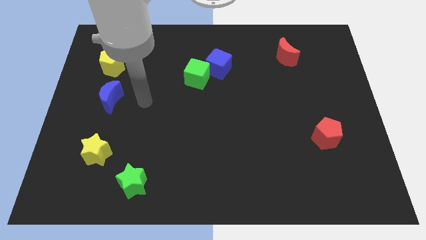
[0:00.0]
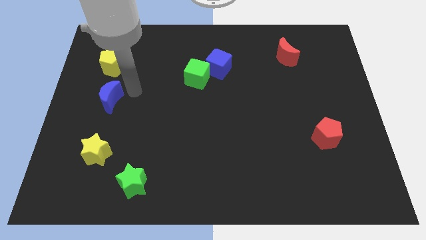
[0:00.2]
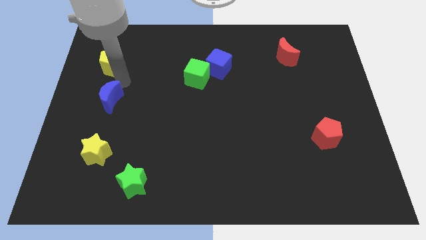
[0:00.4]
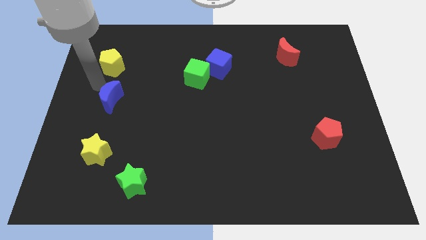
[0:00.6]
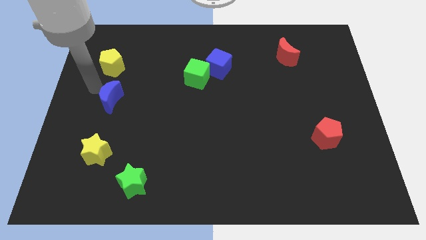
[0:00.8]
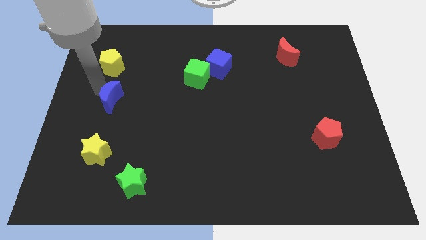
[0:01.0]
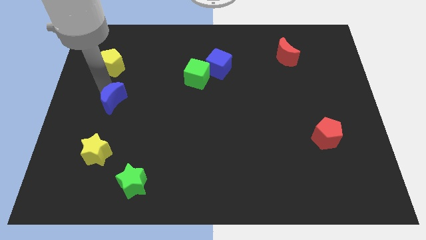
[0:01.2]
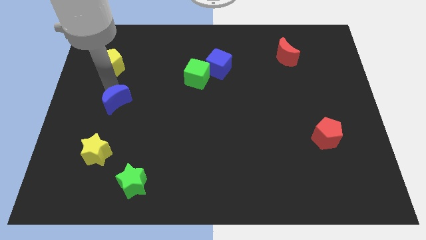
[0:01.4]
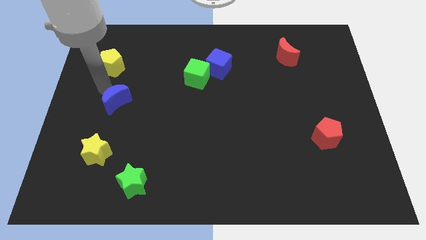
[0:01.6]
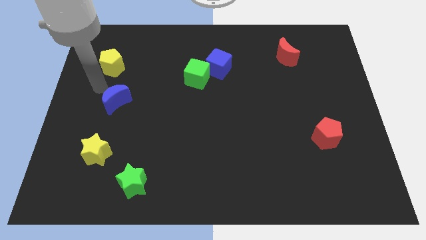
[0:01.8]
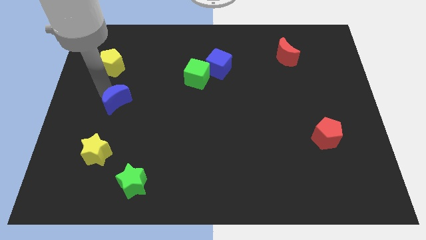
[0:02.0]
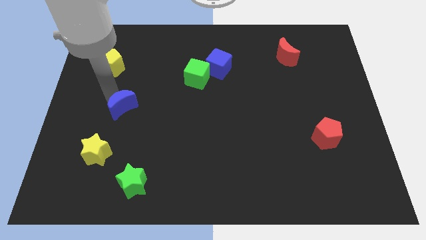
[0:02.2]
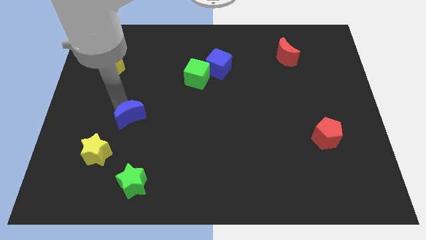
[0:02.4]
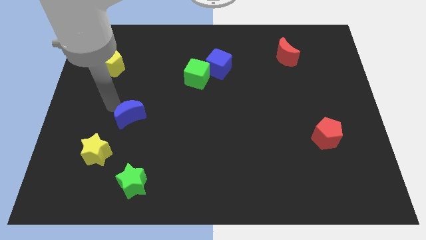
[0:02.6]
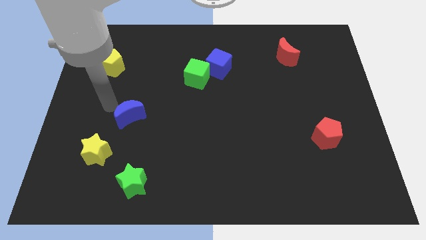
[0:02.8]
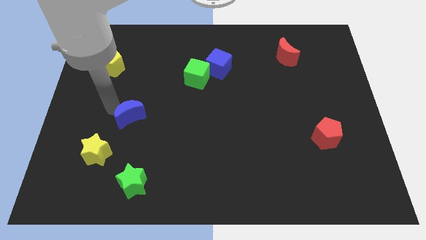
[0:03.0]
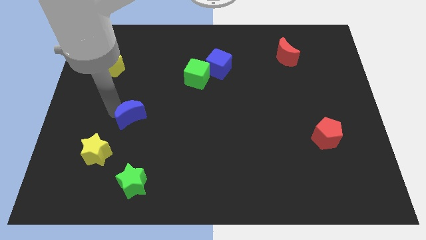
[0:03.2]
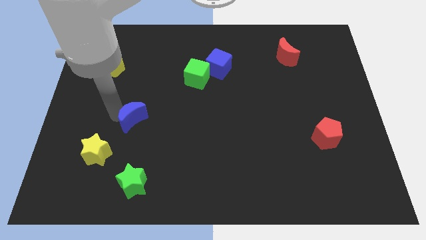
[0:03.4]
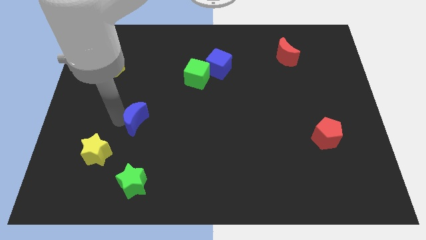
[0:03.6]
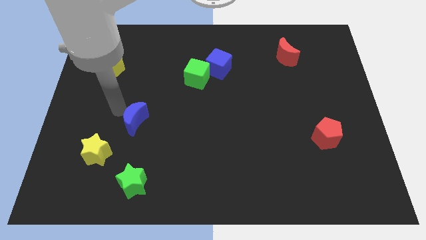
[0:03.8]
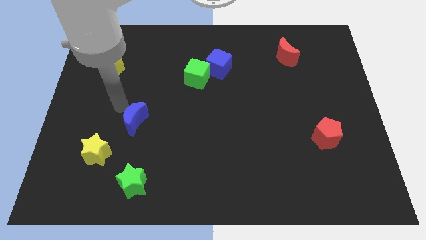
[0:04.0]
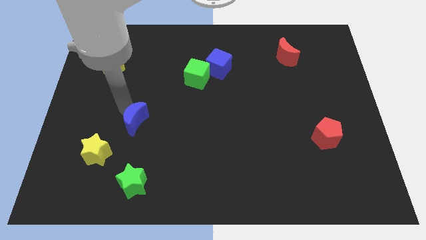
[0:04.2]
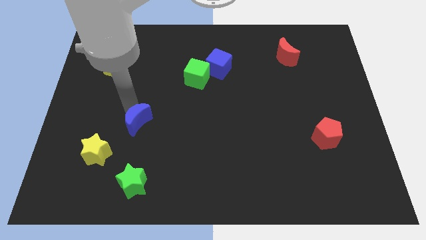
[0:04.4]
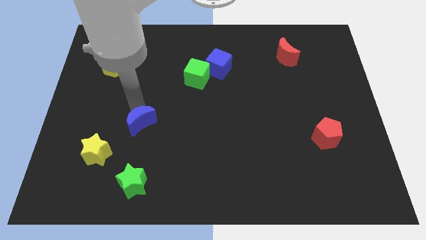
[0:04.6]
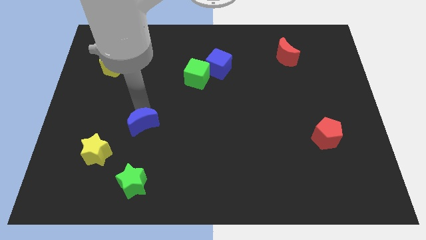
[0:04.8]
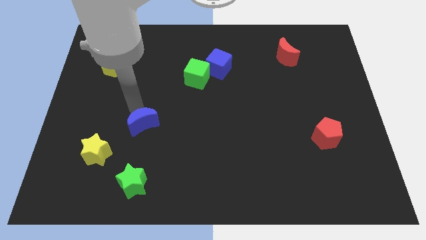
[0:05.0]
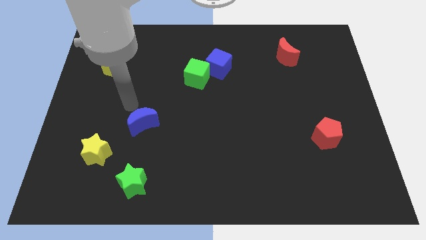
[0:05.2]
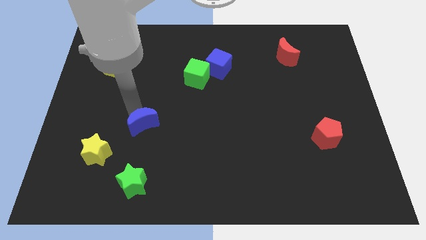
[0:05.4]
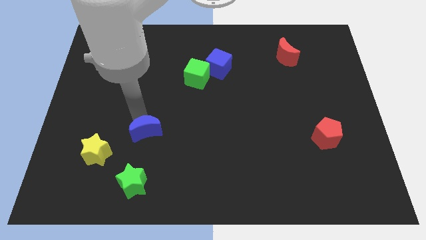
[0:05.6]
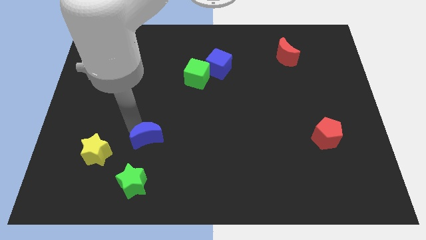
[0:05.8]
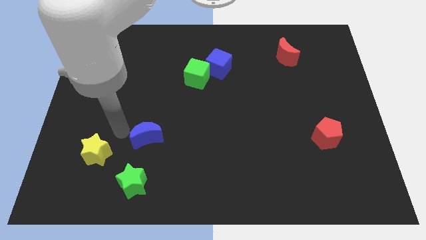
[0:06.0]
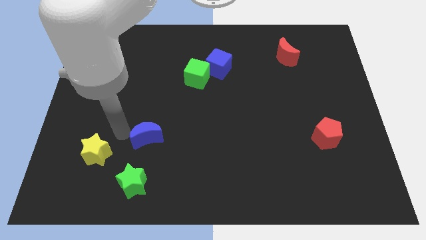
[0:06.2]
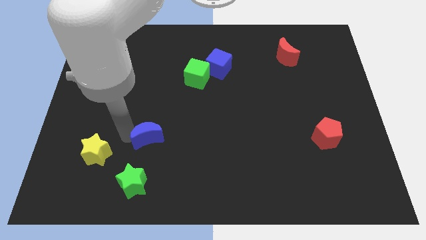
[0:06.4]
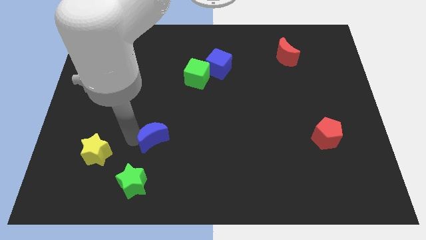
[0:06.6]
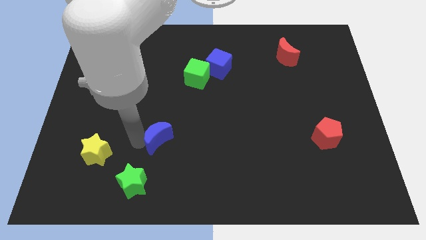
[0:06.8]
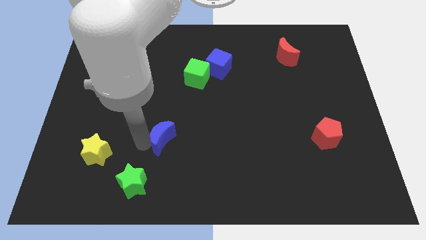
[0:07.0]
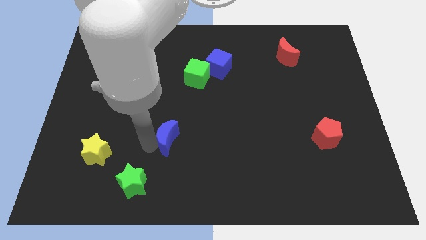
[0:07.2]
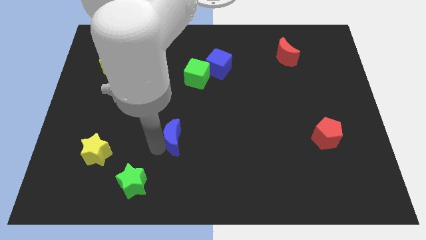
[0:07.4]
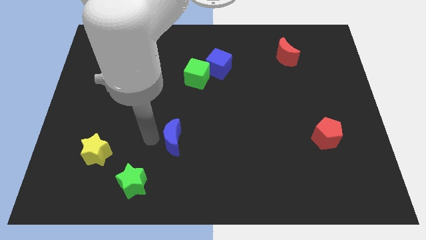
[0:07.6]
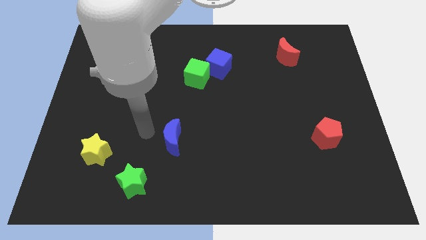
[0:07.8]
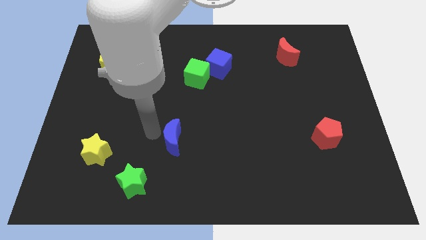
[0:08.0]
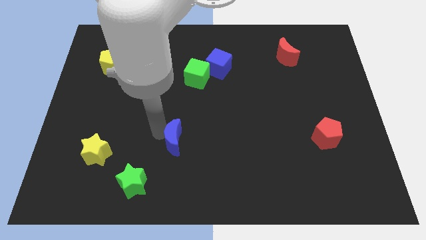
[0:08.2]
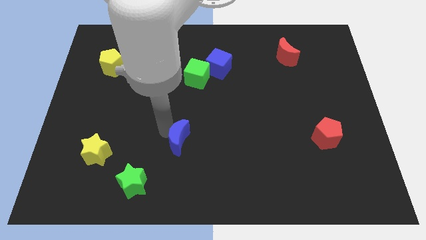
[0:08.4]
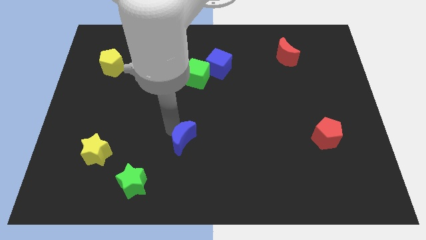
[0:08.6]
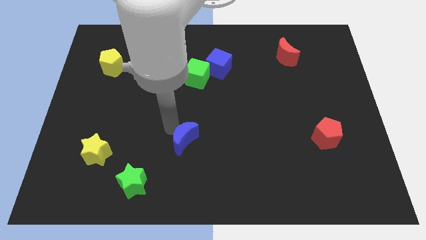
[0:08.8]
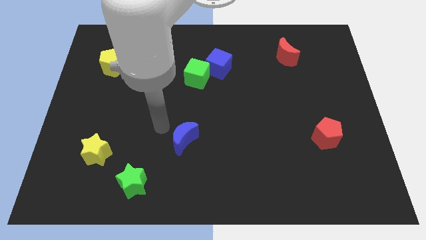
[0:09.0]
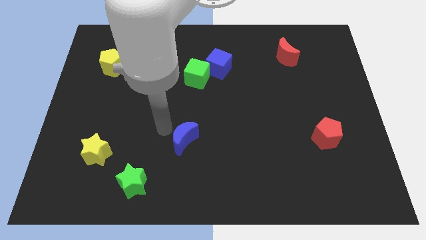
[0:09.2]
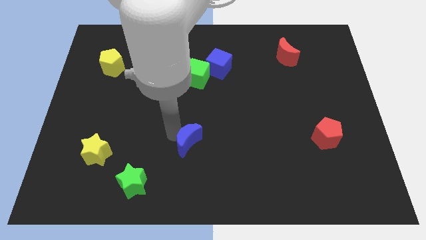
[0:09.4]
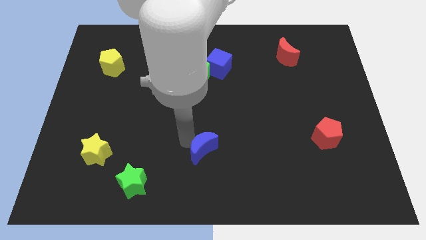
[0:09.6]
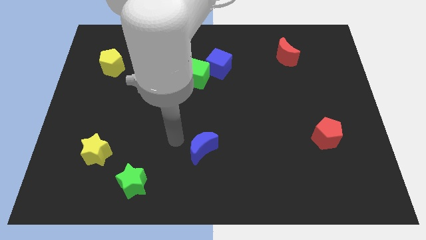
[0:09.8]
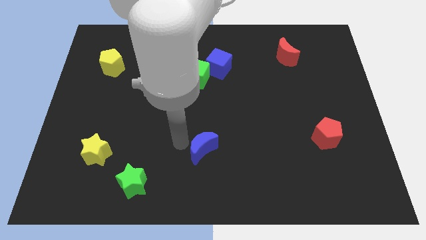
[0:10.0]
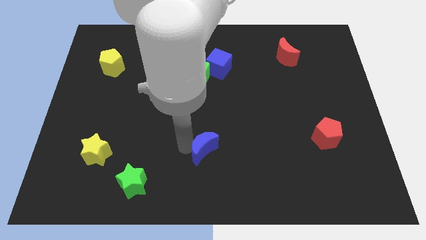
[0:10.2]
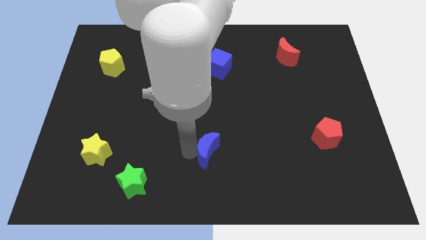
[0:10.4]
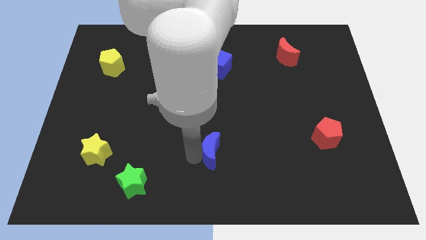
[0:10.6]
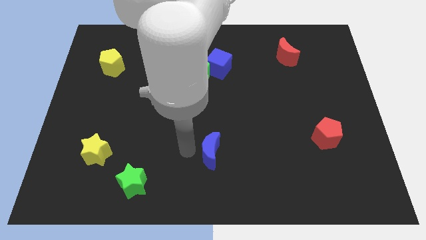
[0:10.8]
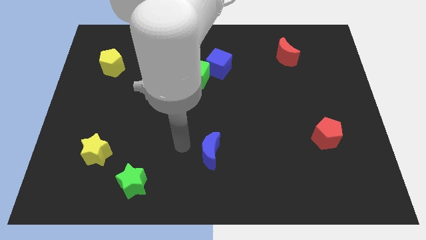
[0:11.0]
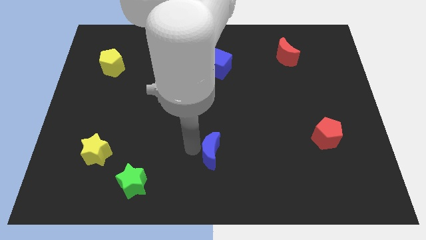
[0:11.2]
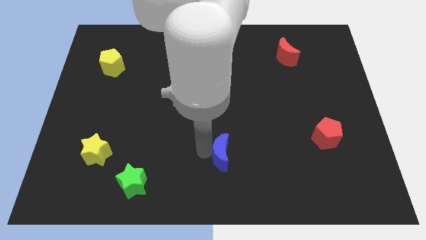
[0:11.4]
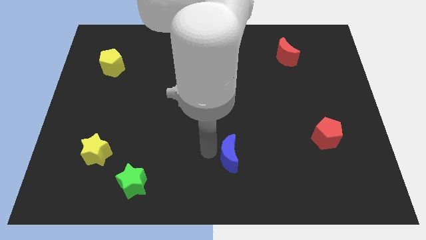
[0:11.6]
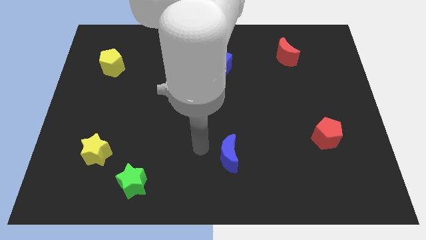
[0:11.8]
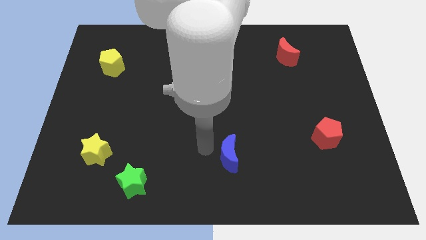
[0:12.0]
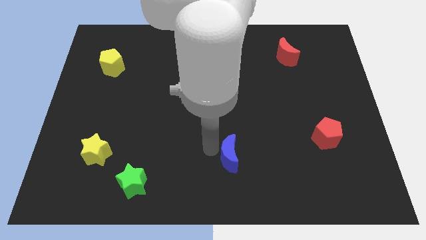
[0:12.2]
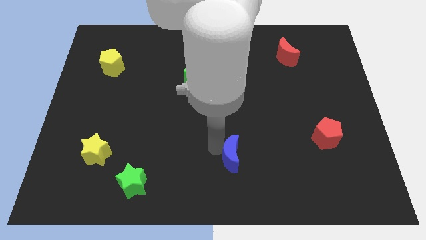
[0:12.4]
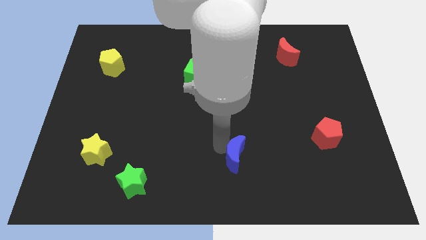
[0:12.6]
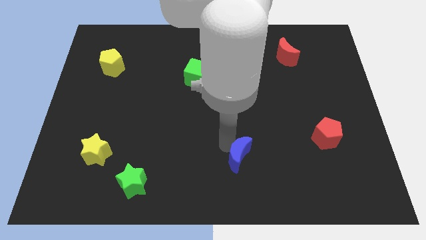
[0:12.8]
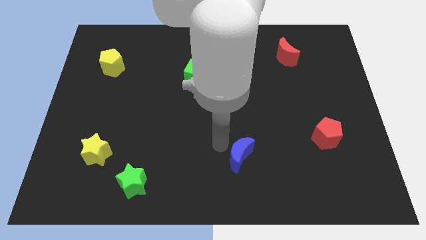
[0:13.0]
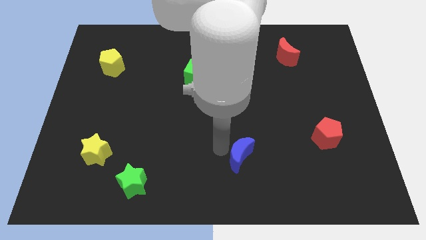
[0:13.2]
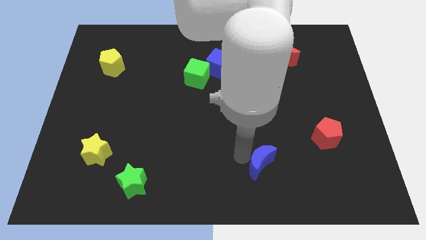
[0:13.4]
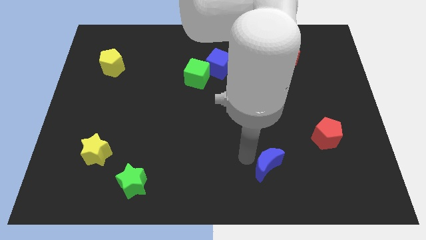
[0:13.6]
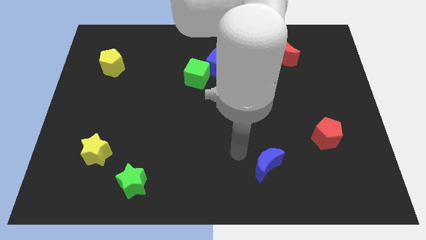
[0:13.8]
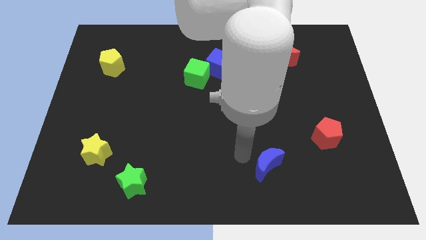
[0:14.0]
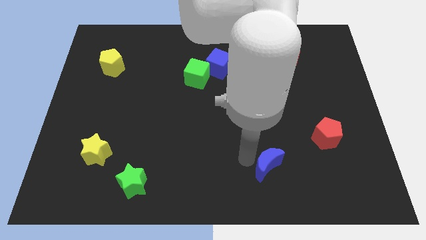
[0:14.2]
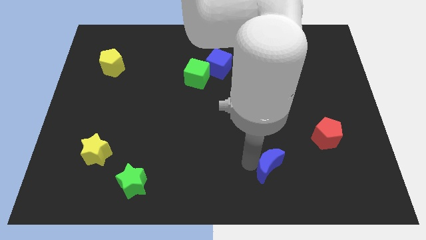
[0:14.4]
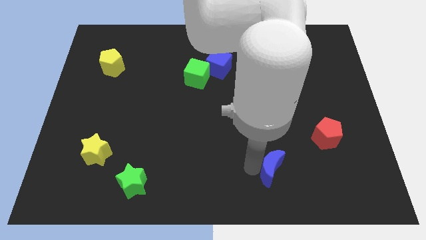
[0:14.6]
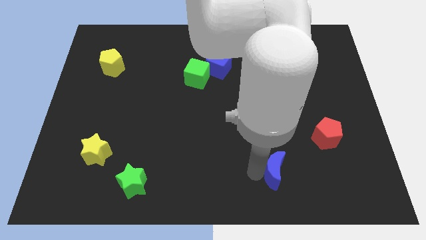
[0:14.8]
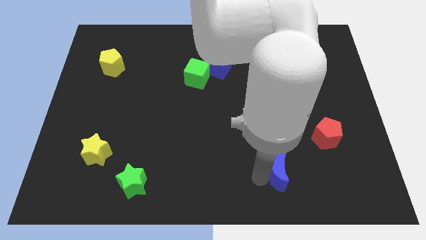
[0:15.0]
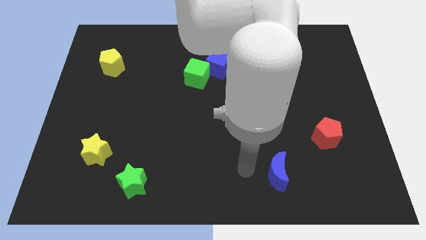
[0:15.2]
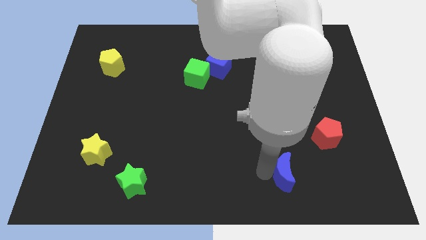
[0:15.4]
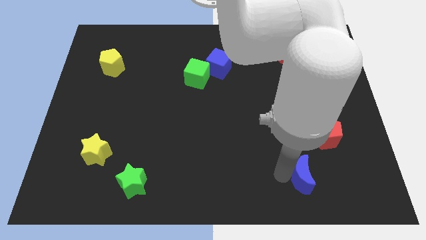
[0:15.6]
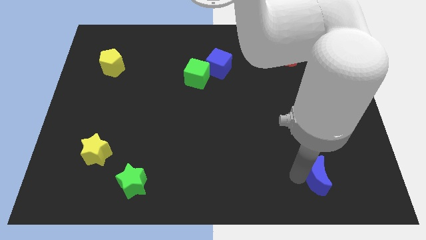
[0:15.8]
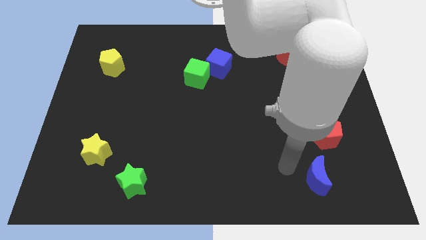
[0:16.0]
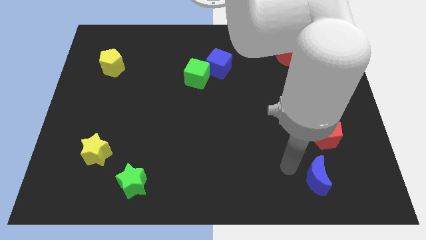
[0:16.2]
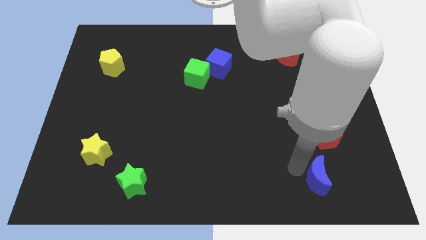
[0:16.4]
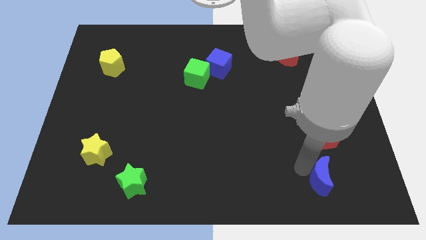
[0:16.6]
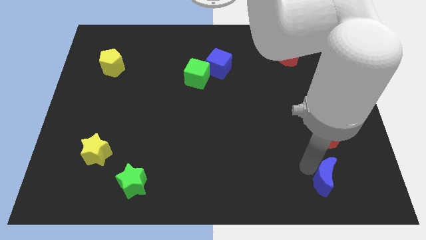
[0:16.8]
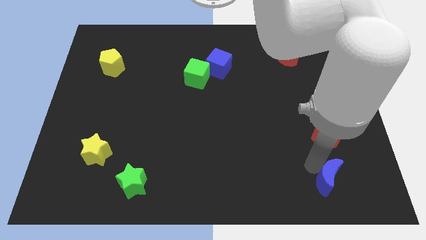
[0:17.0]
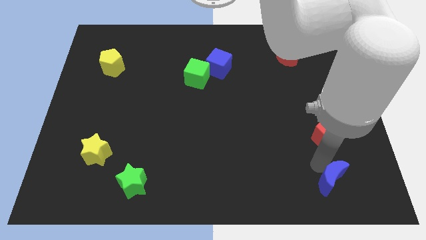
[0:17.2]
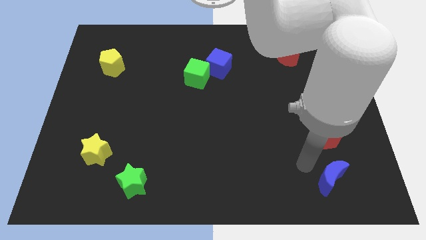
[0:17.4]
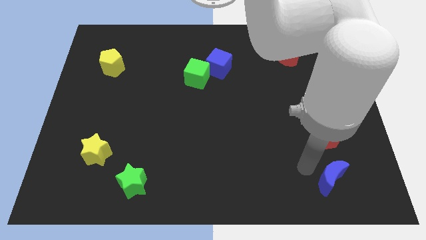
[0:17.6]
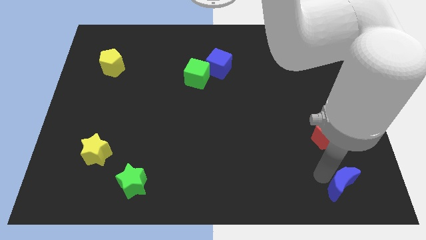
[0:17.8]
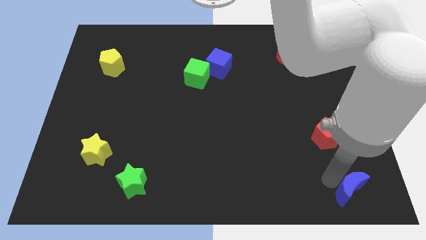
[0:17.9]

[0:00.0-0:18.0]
push the blue moon to the bottom right of the board
